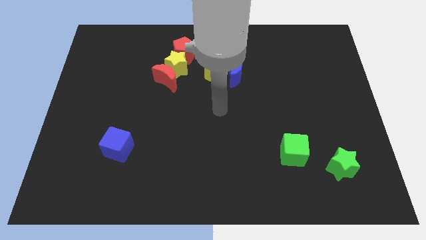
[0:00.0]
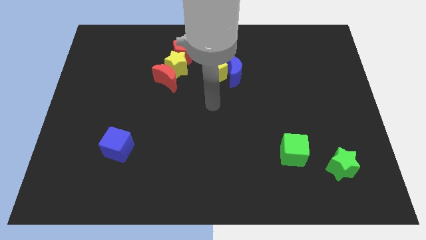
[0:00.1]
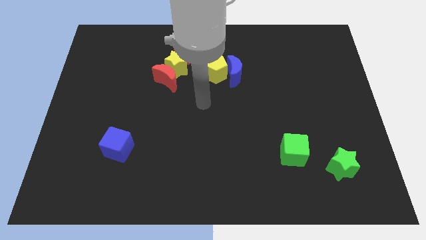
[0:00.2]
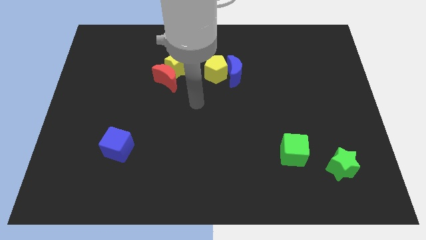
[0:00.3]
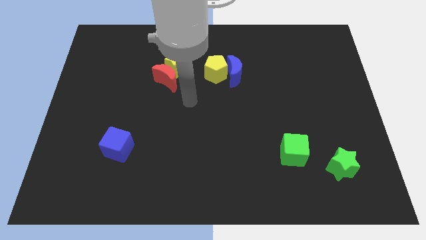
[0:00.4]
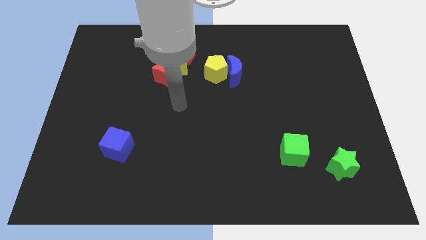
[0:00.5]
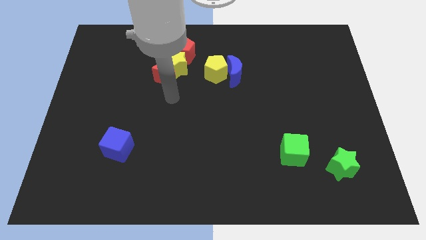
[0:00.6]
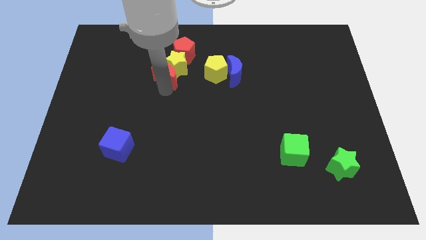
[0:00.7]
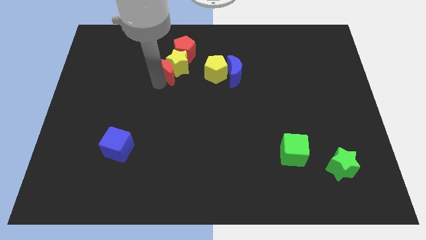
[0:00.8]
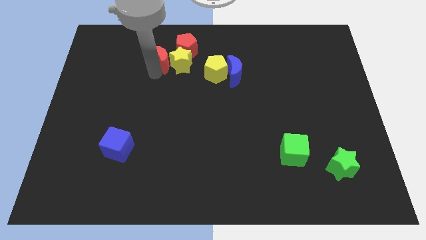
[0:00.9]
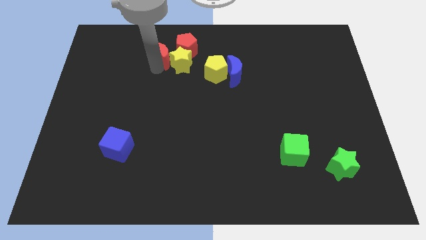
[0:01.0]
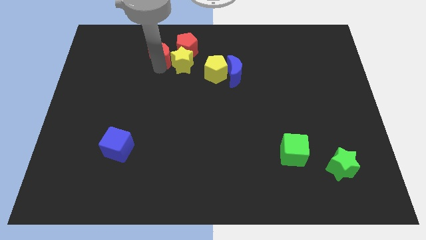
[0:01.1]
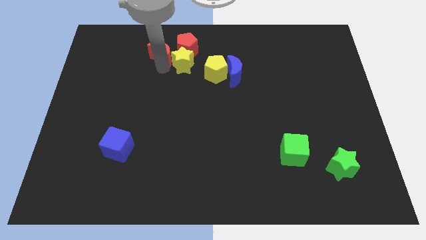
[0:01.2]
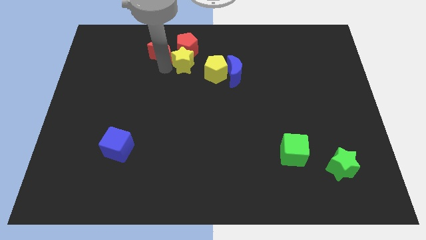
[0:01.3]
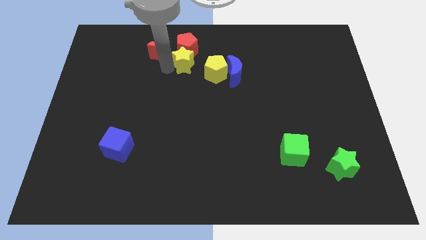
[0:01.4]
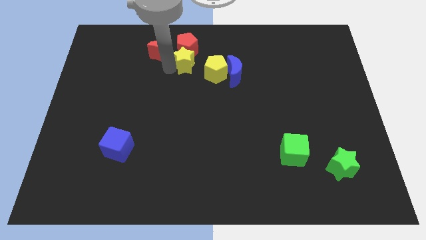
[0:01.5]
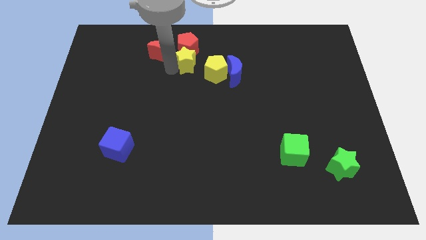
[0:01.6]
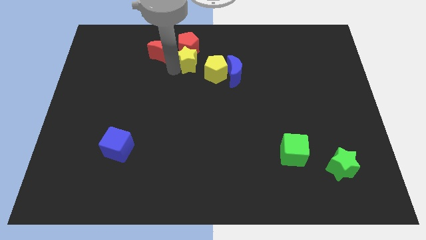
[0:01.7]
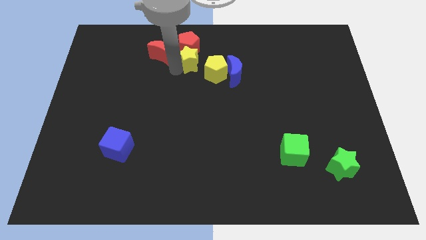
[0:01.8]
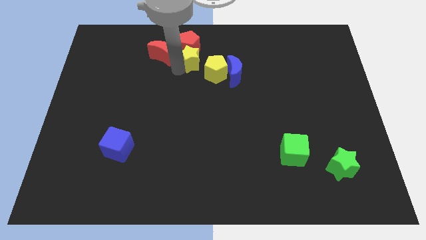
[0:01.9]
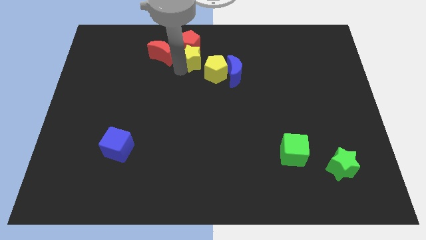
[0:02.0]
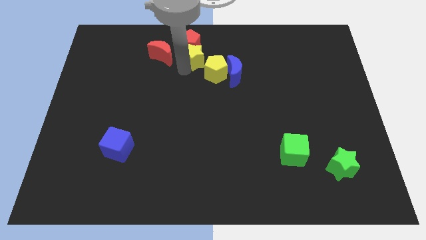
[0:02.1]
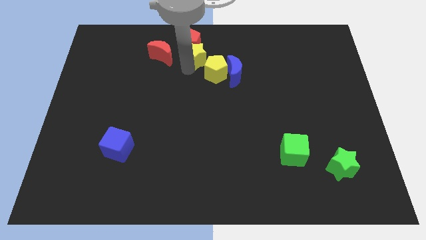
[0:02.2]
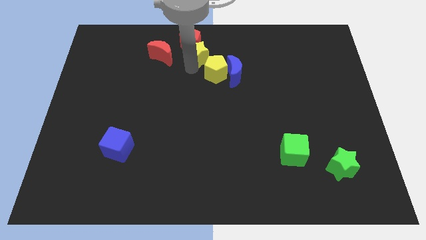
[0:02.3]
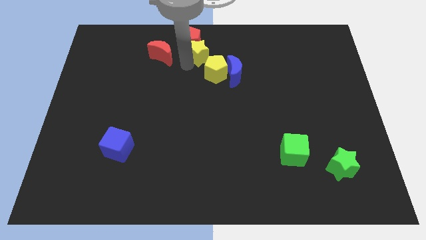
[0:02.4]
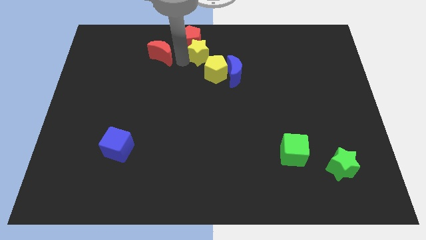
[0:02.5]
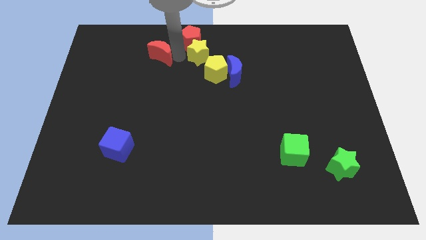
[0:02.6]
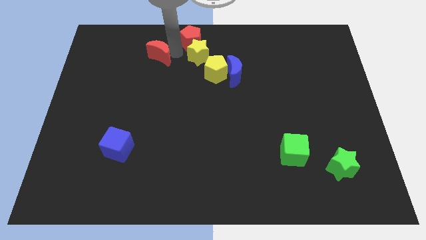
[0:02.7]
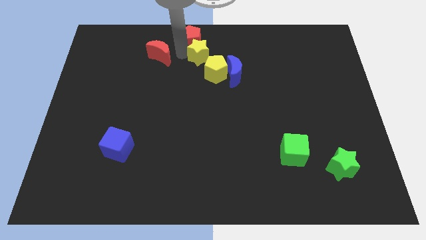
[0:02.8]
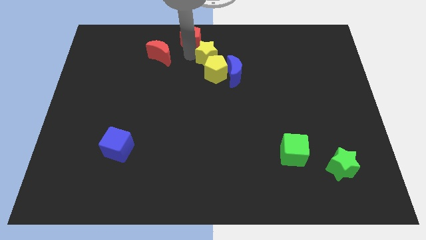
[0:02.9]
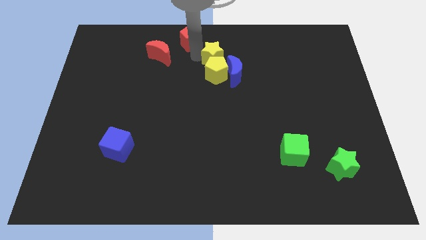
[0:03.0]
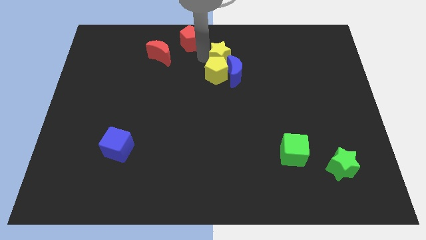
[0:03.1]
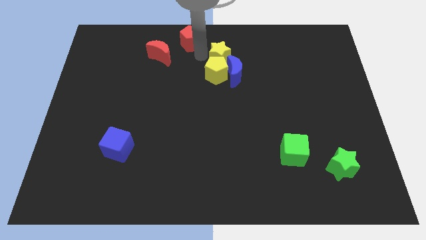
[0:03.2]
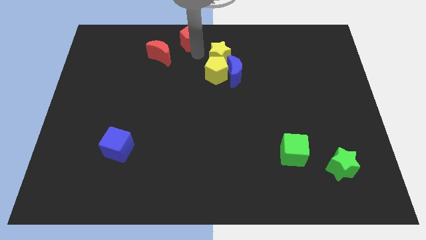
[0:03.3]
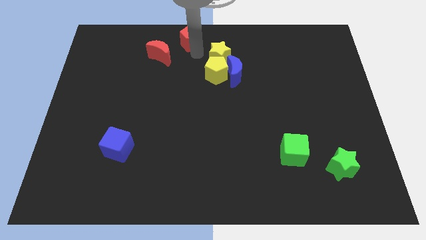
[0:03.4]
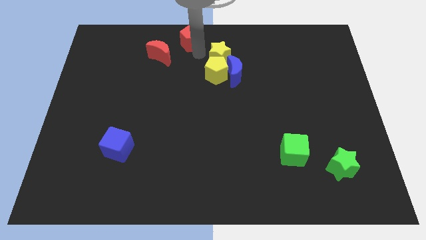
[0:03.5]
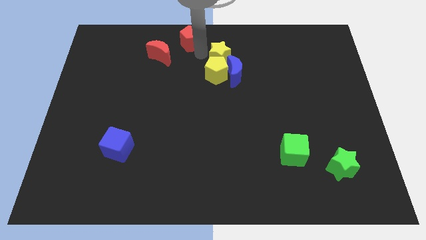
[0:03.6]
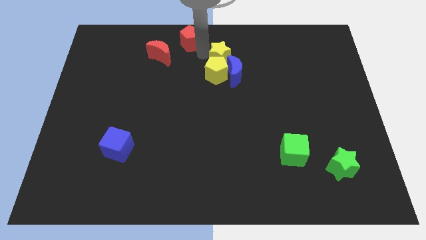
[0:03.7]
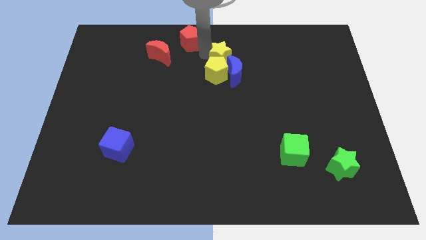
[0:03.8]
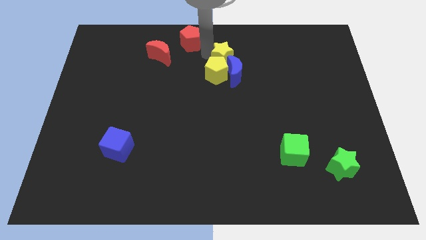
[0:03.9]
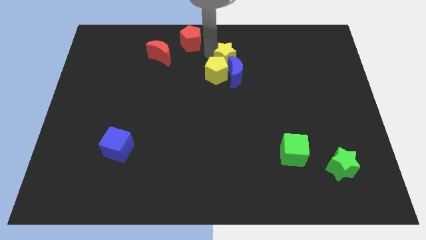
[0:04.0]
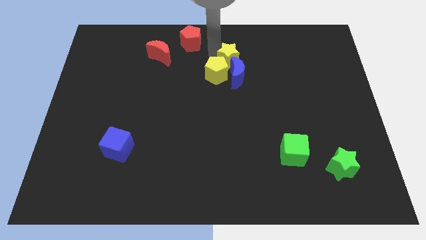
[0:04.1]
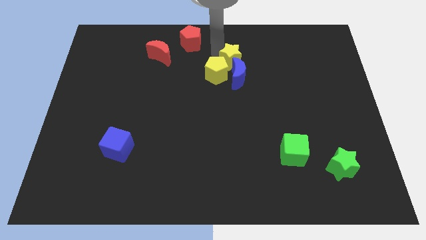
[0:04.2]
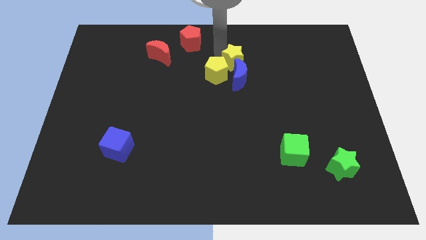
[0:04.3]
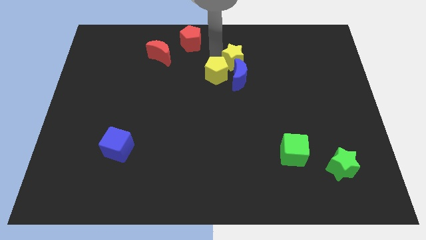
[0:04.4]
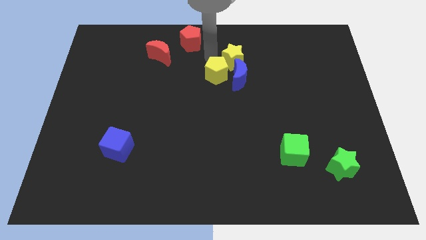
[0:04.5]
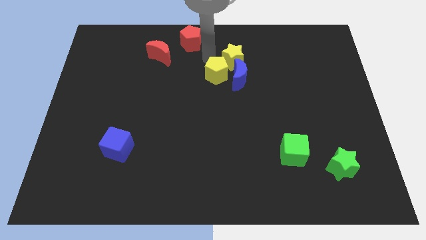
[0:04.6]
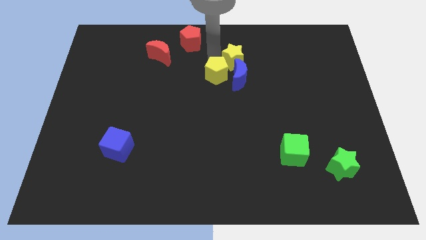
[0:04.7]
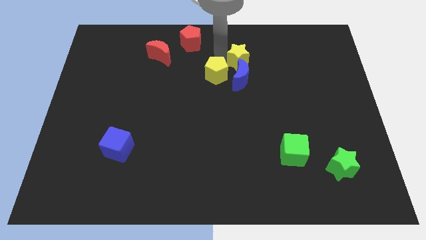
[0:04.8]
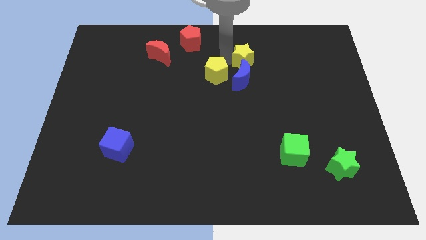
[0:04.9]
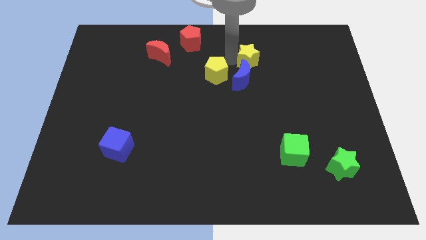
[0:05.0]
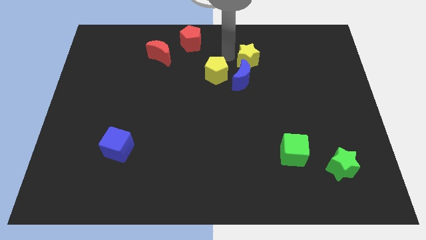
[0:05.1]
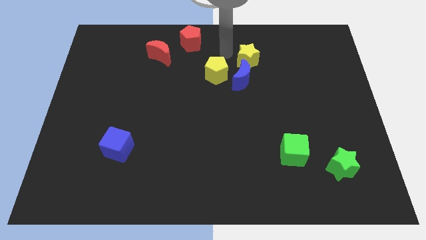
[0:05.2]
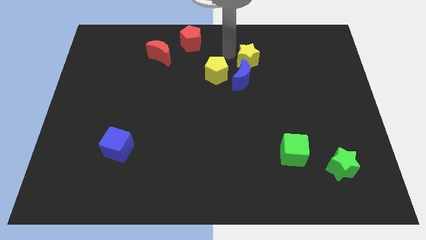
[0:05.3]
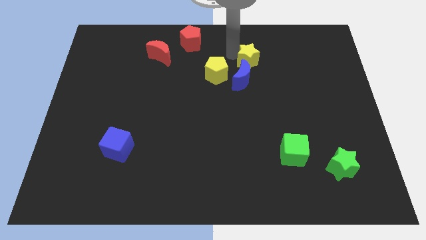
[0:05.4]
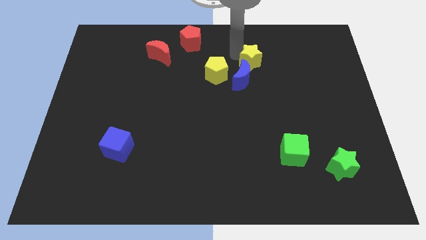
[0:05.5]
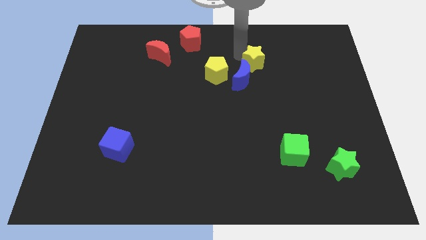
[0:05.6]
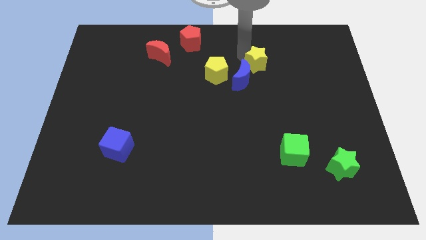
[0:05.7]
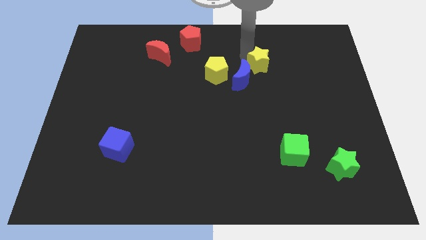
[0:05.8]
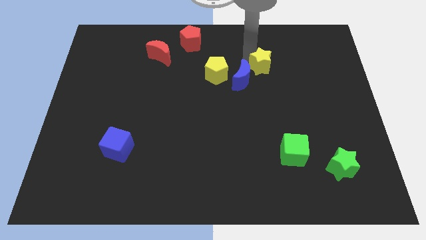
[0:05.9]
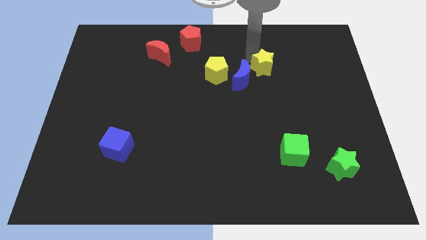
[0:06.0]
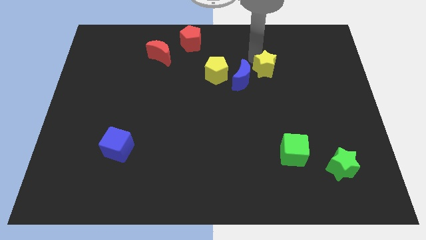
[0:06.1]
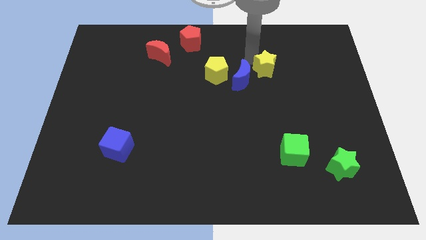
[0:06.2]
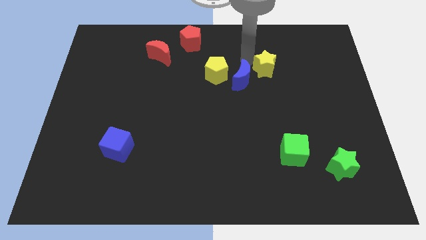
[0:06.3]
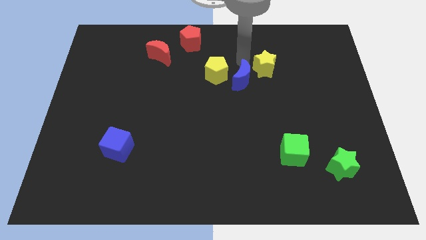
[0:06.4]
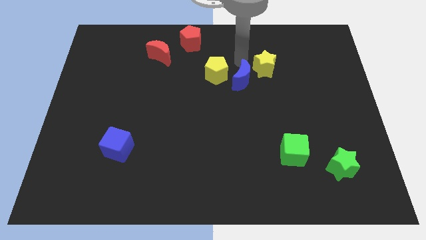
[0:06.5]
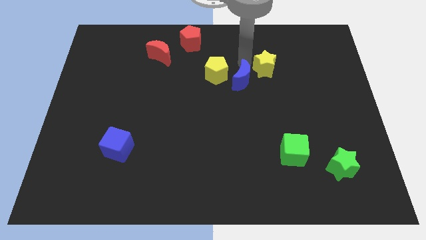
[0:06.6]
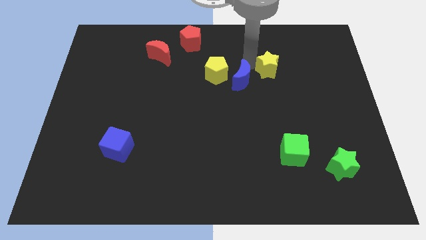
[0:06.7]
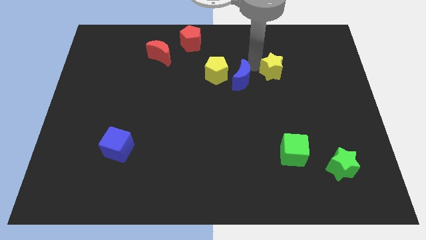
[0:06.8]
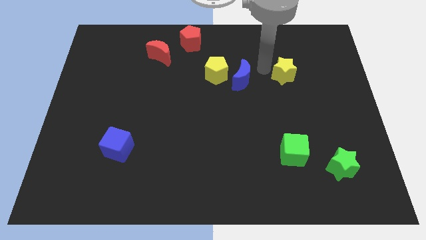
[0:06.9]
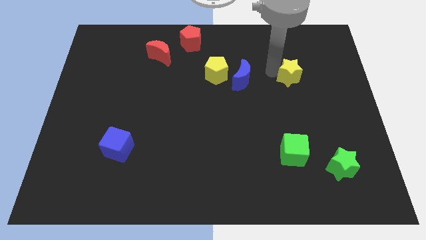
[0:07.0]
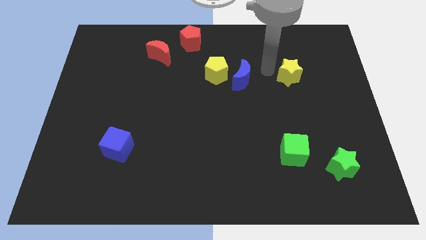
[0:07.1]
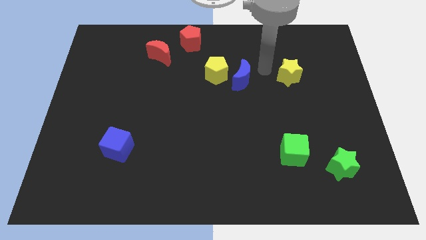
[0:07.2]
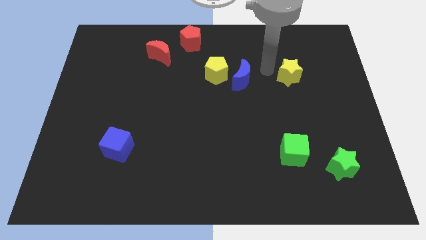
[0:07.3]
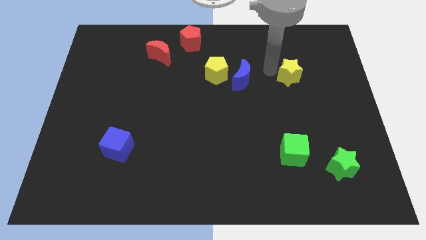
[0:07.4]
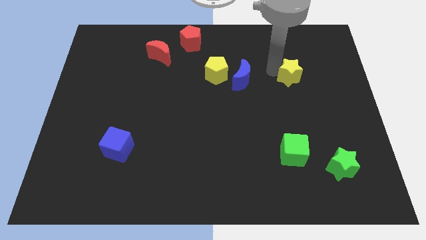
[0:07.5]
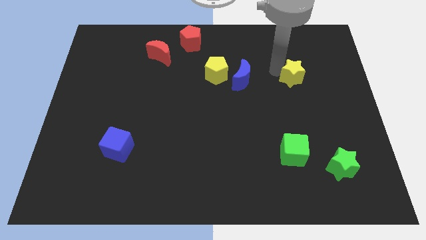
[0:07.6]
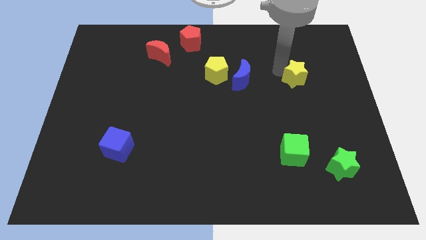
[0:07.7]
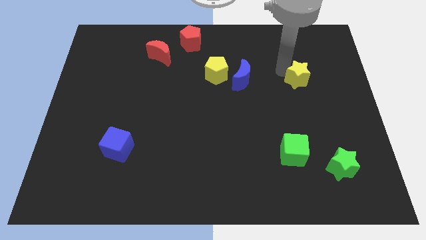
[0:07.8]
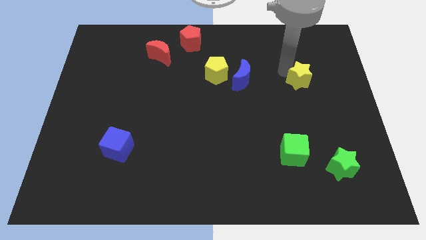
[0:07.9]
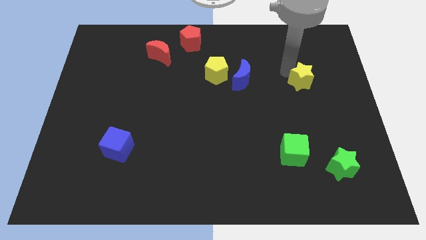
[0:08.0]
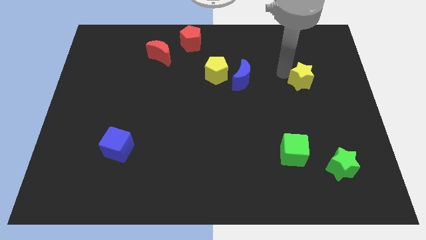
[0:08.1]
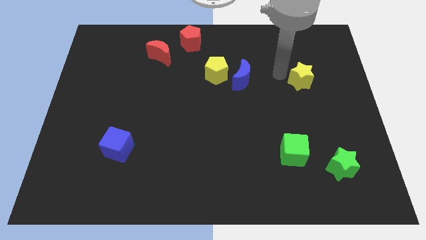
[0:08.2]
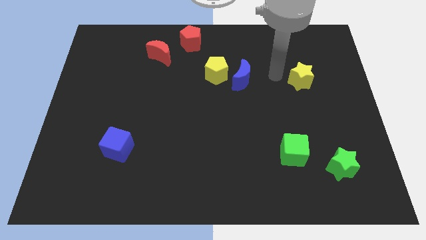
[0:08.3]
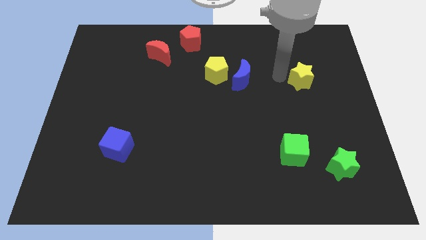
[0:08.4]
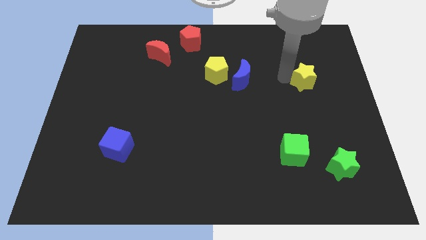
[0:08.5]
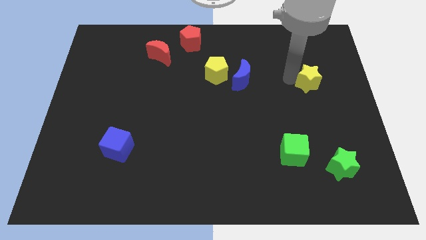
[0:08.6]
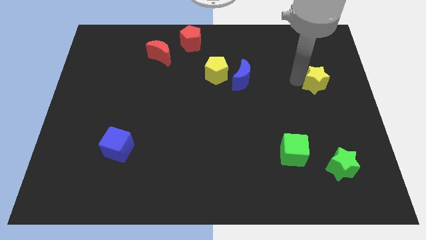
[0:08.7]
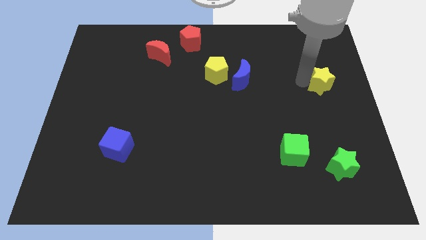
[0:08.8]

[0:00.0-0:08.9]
push the yellow star to the center right
